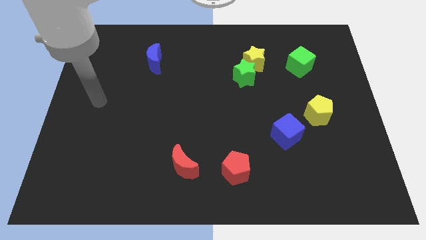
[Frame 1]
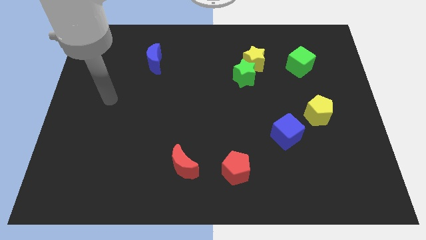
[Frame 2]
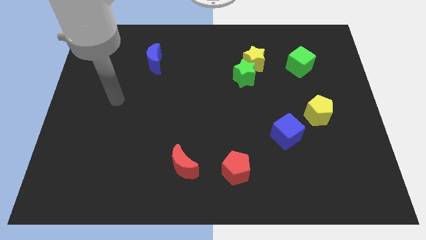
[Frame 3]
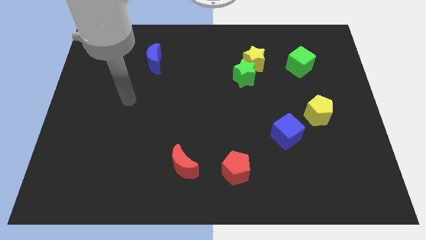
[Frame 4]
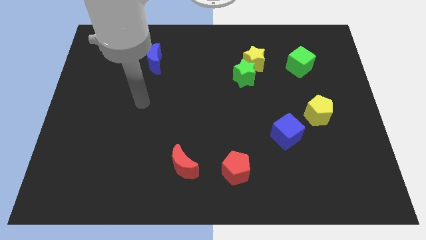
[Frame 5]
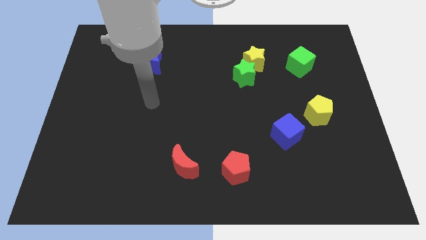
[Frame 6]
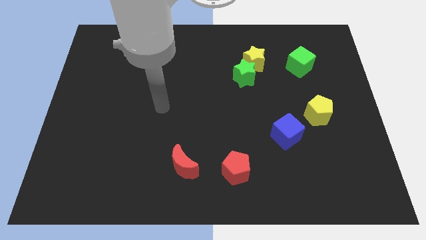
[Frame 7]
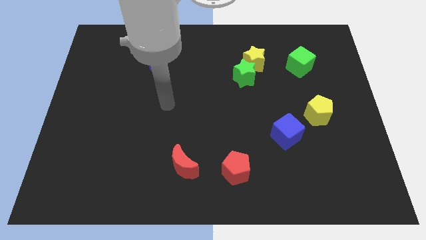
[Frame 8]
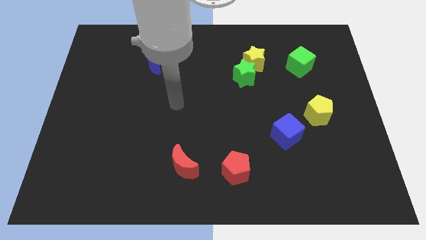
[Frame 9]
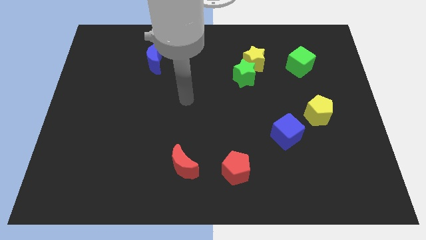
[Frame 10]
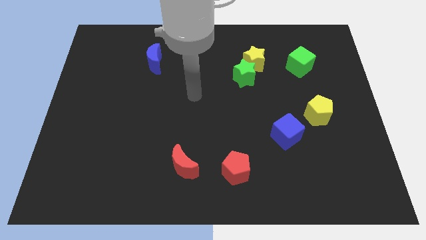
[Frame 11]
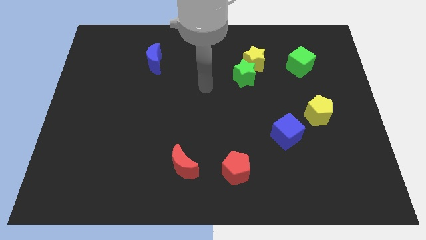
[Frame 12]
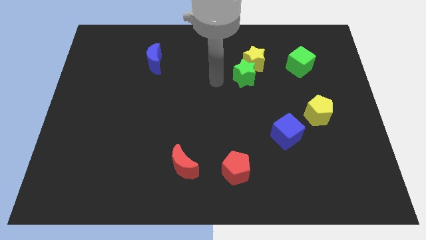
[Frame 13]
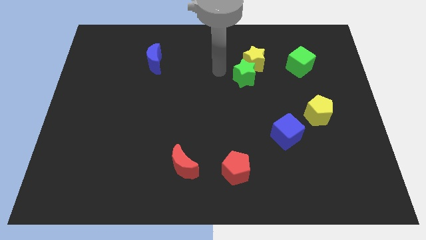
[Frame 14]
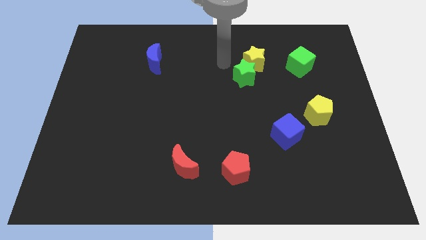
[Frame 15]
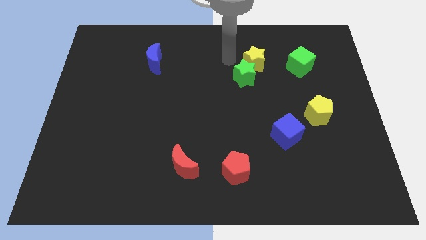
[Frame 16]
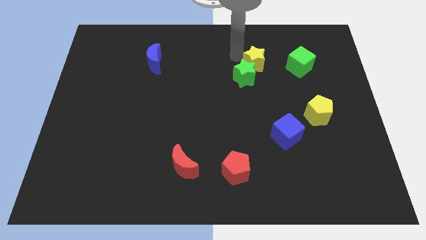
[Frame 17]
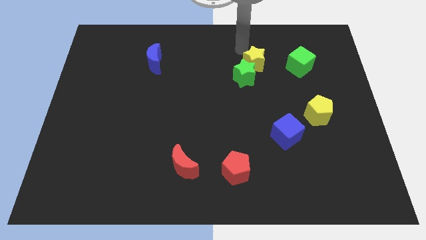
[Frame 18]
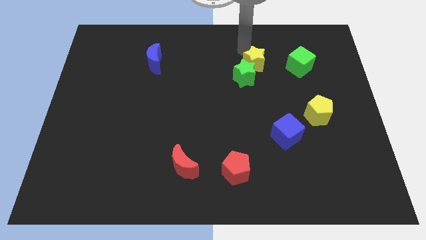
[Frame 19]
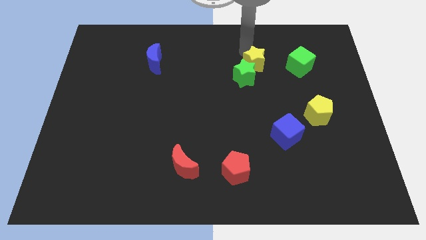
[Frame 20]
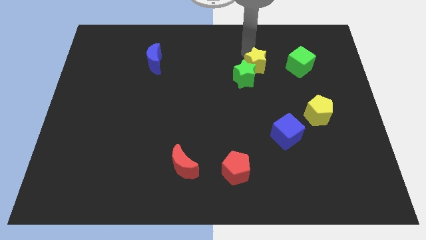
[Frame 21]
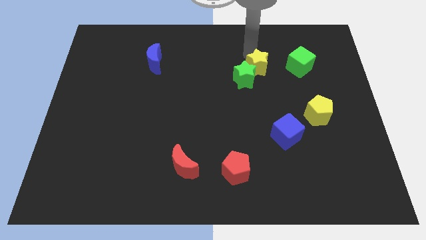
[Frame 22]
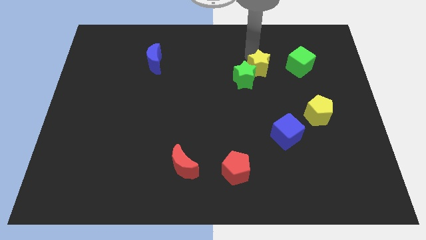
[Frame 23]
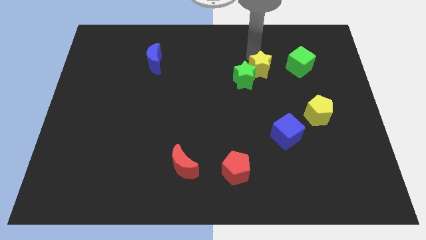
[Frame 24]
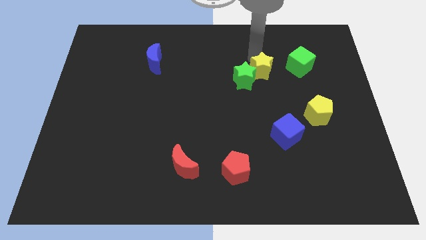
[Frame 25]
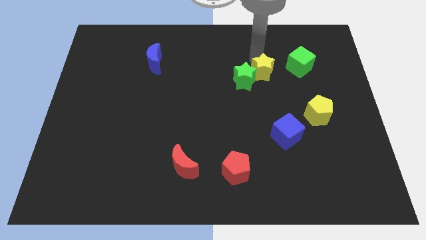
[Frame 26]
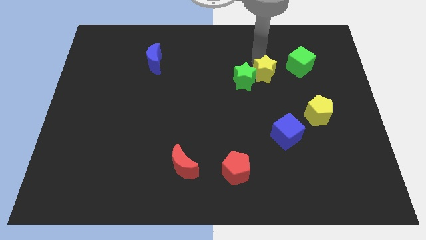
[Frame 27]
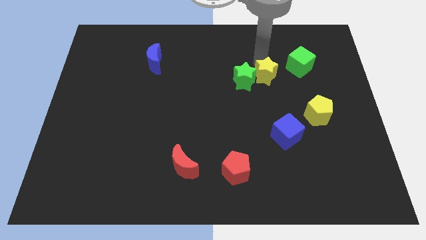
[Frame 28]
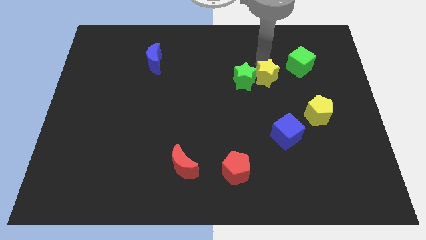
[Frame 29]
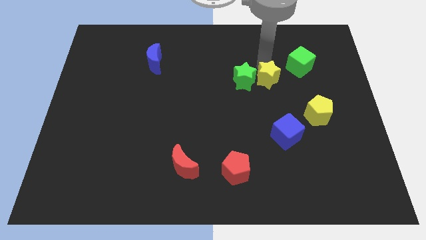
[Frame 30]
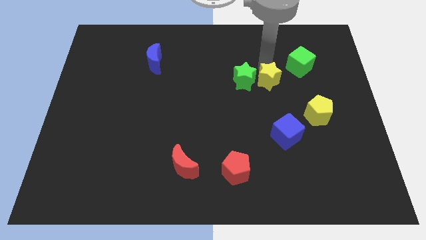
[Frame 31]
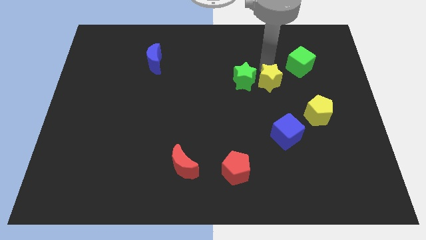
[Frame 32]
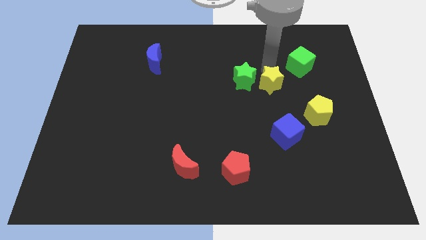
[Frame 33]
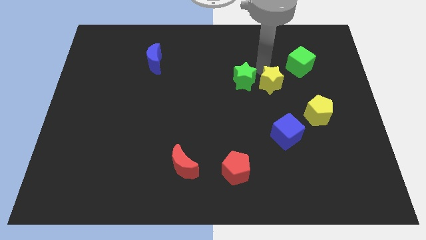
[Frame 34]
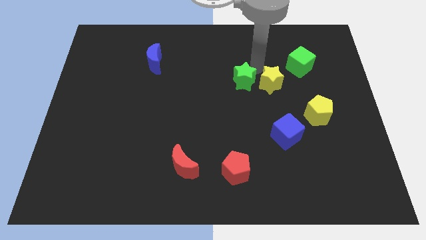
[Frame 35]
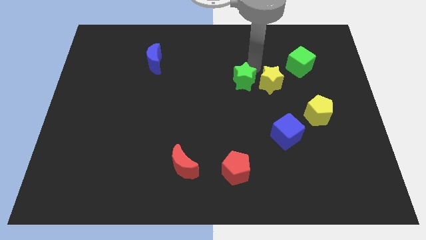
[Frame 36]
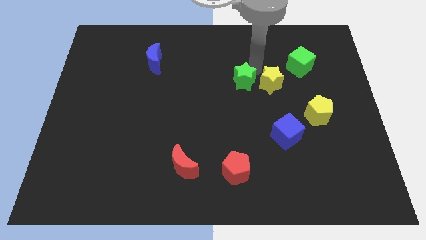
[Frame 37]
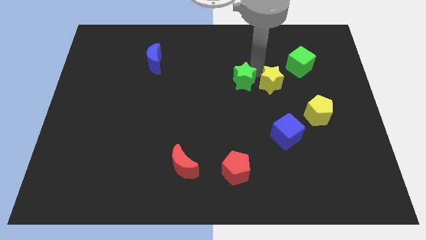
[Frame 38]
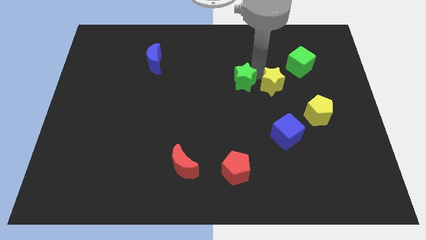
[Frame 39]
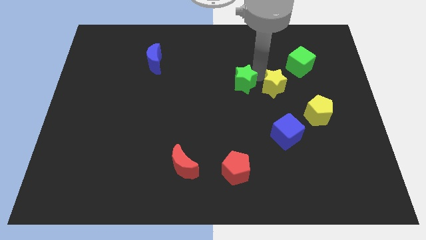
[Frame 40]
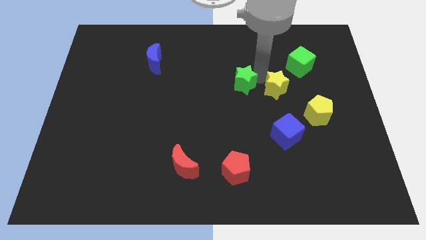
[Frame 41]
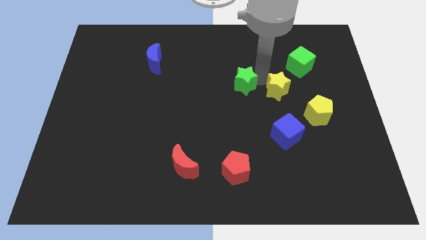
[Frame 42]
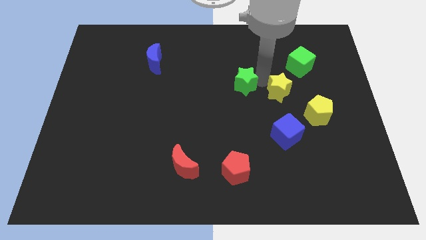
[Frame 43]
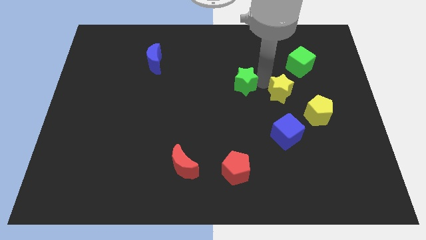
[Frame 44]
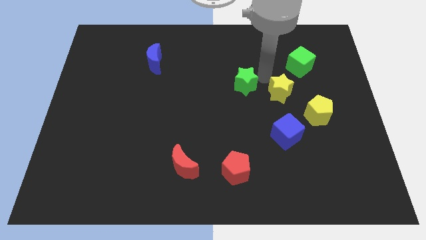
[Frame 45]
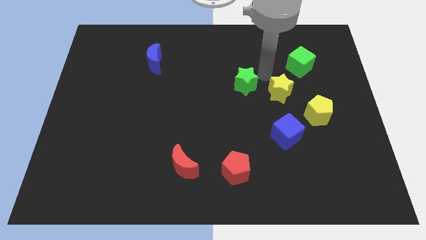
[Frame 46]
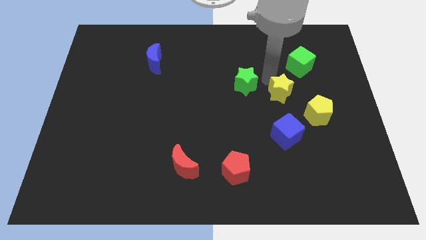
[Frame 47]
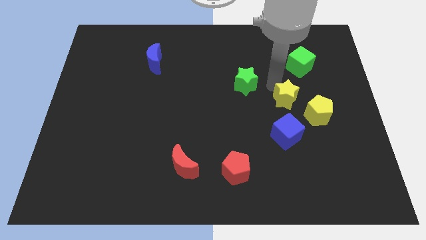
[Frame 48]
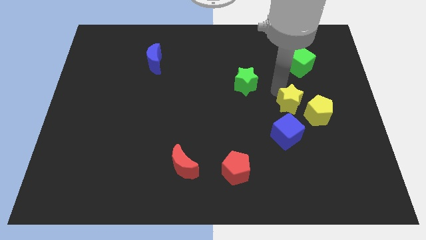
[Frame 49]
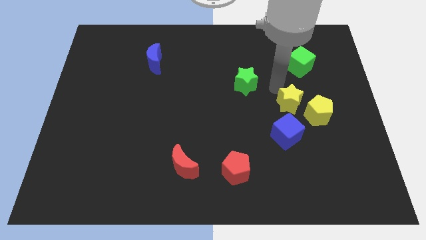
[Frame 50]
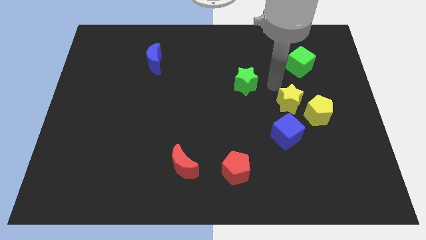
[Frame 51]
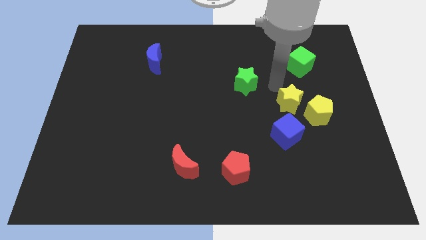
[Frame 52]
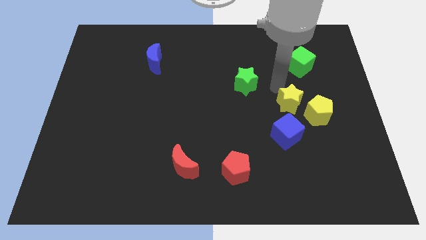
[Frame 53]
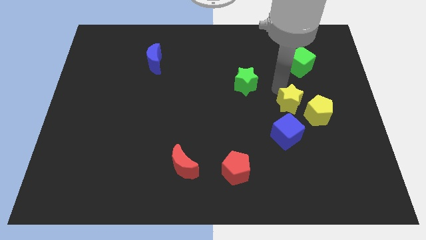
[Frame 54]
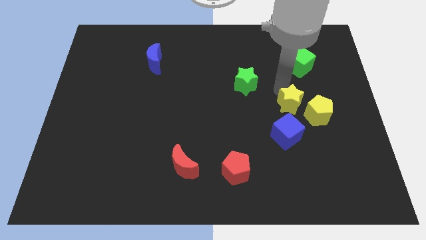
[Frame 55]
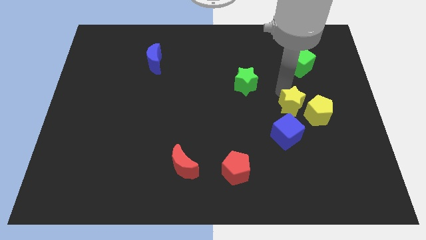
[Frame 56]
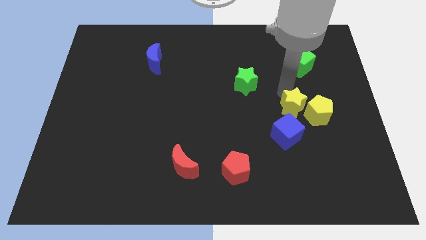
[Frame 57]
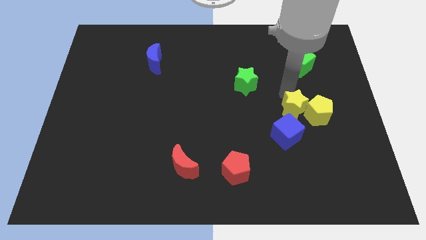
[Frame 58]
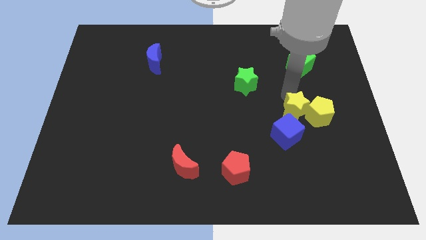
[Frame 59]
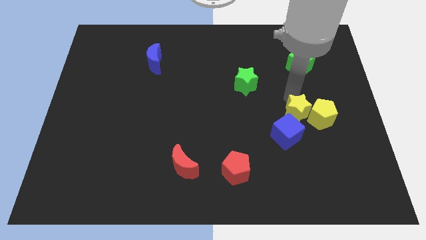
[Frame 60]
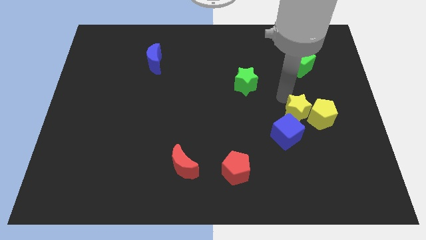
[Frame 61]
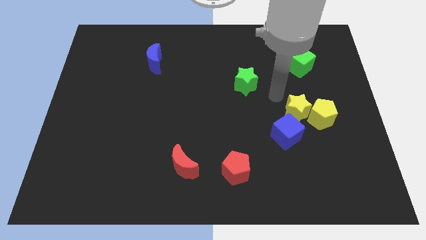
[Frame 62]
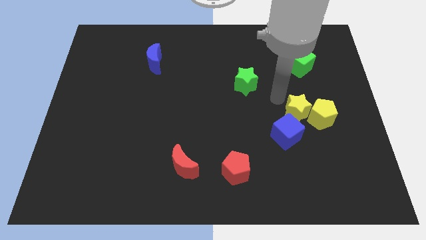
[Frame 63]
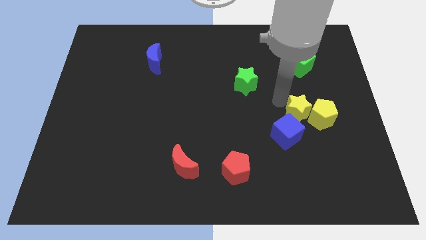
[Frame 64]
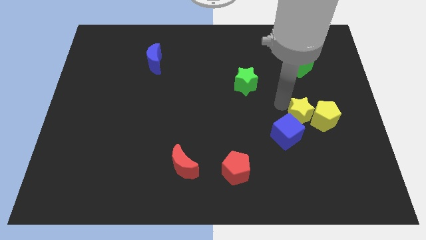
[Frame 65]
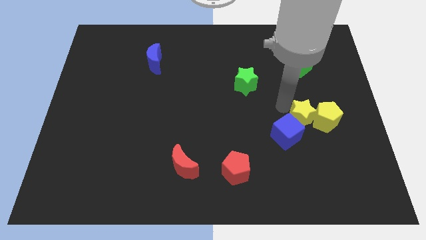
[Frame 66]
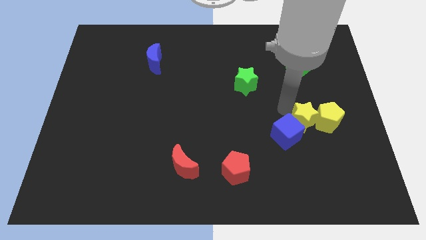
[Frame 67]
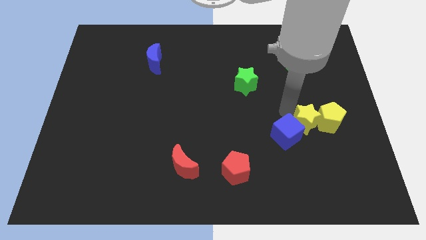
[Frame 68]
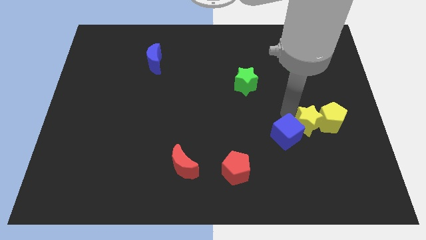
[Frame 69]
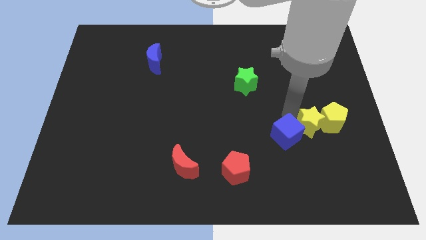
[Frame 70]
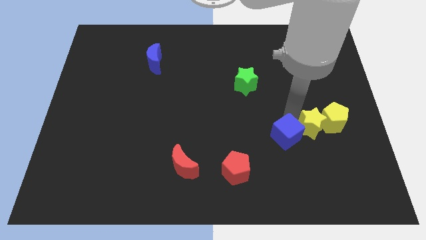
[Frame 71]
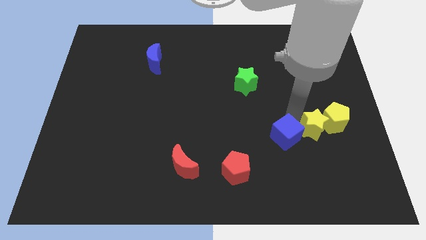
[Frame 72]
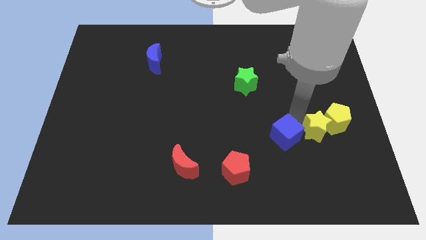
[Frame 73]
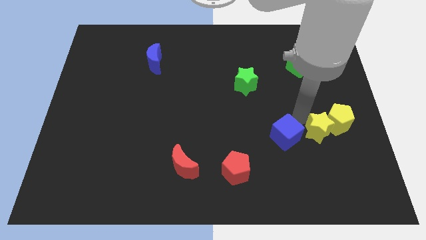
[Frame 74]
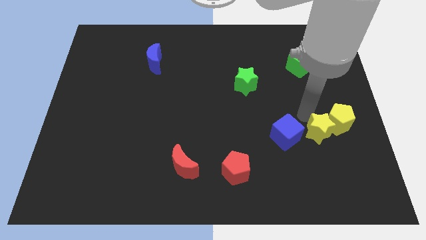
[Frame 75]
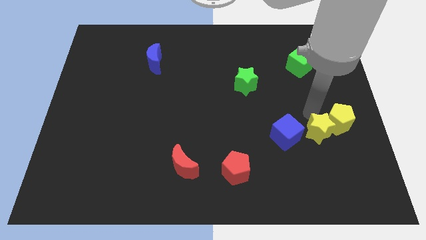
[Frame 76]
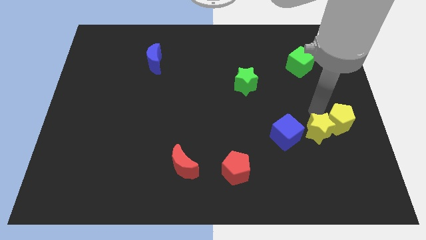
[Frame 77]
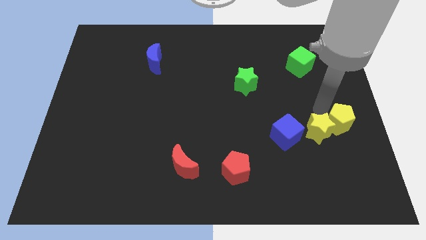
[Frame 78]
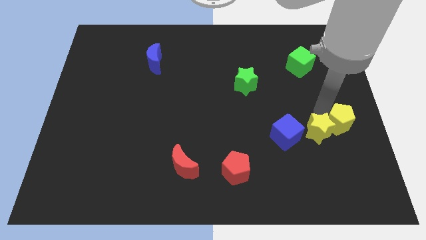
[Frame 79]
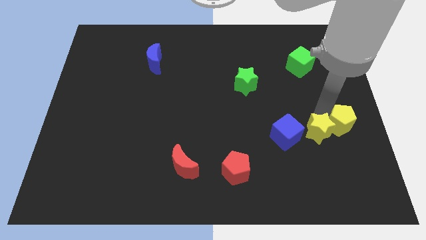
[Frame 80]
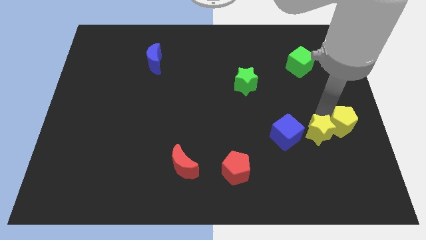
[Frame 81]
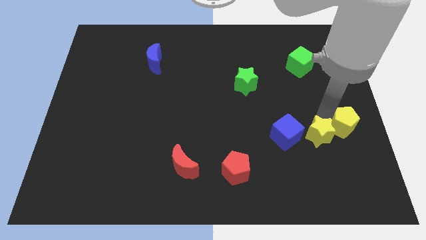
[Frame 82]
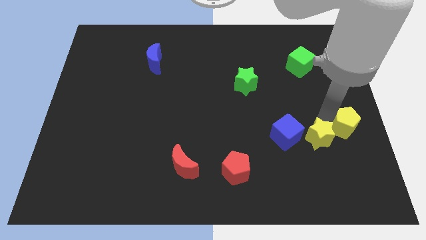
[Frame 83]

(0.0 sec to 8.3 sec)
put the yellow star to the bottom right side of the blue cube
